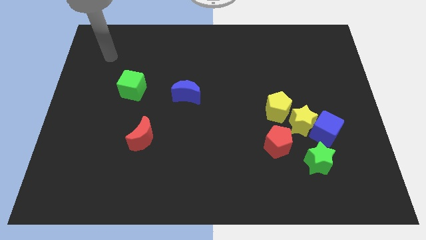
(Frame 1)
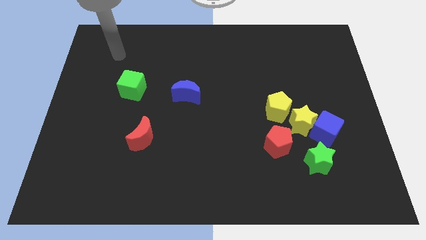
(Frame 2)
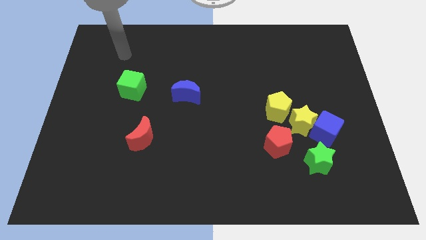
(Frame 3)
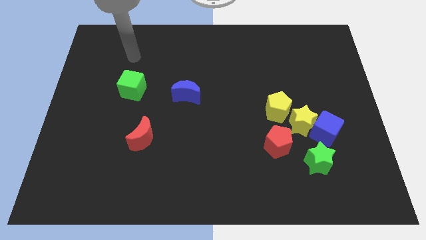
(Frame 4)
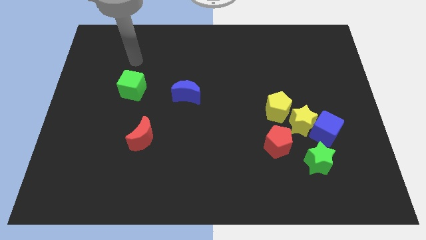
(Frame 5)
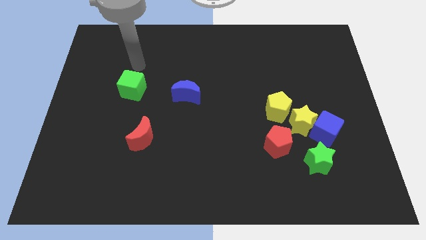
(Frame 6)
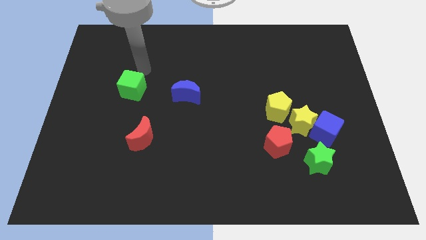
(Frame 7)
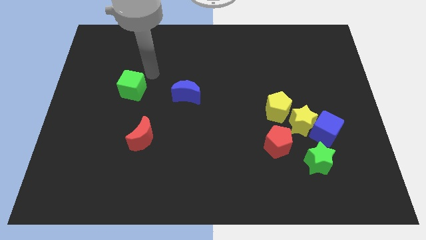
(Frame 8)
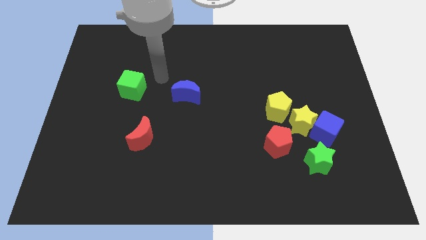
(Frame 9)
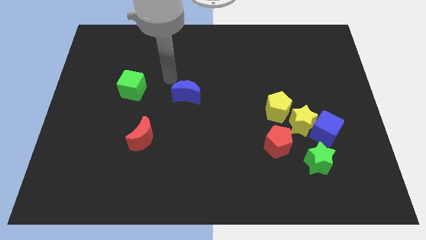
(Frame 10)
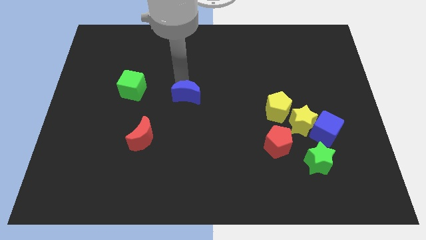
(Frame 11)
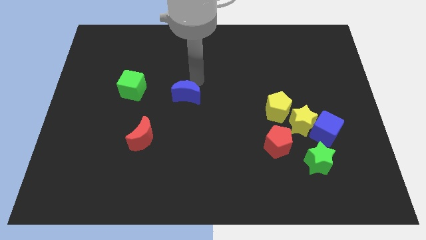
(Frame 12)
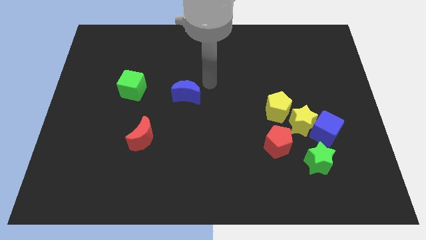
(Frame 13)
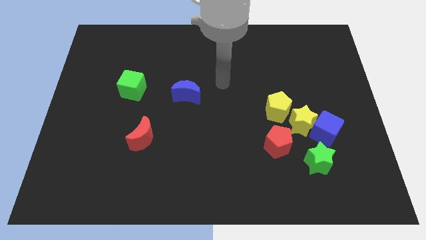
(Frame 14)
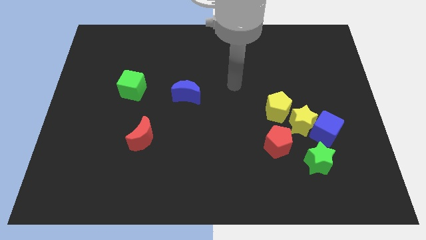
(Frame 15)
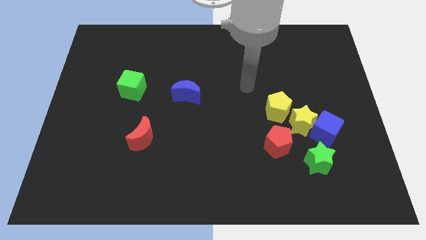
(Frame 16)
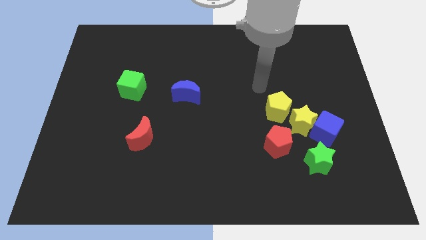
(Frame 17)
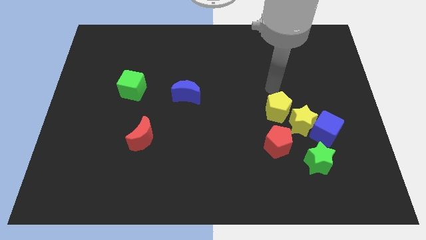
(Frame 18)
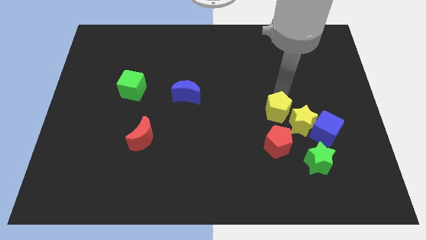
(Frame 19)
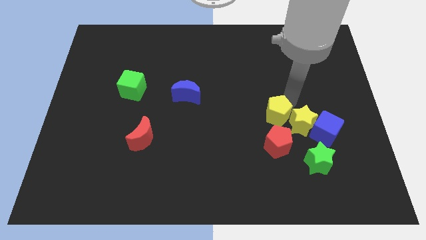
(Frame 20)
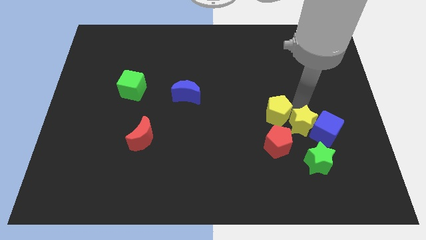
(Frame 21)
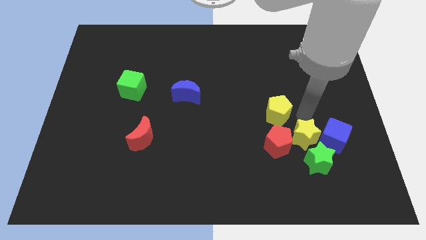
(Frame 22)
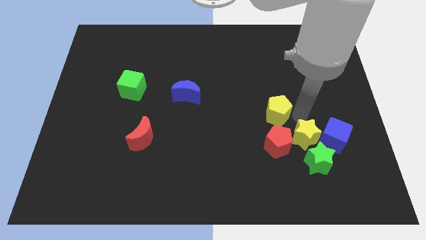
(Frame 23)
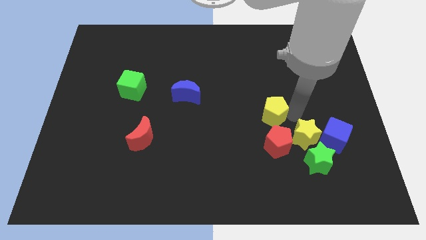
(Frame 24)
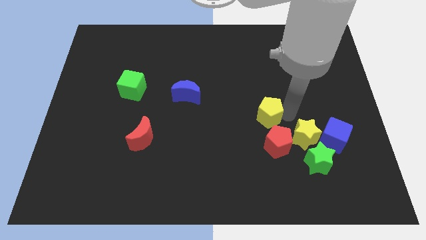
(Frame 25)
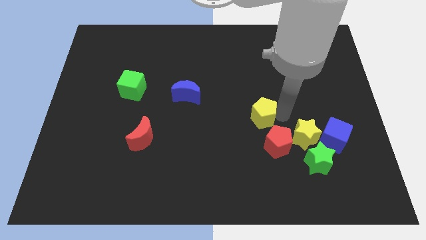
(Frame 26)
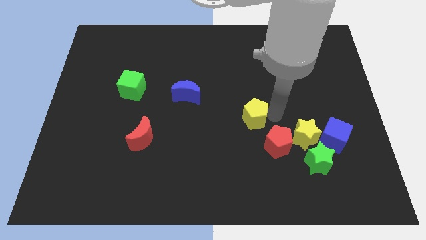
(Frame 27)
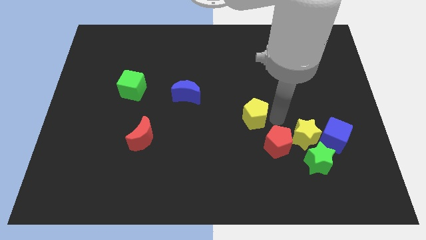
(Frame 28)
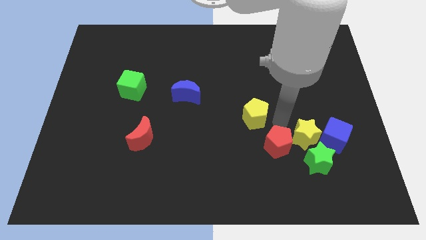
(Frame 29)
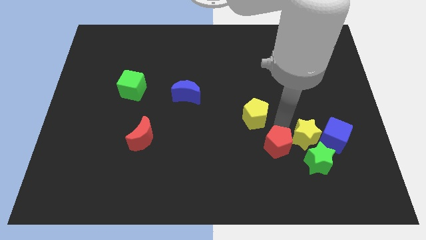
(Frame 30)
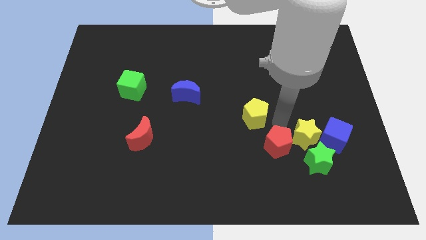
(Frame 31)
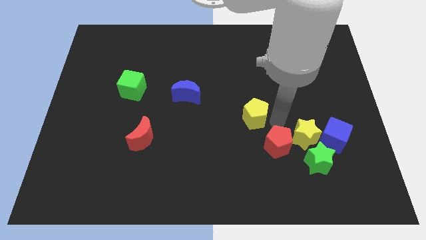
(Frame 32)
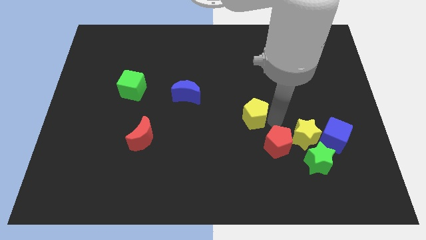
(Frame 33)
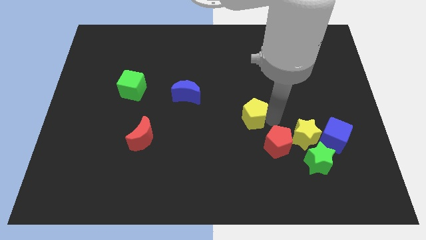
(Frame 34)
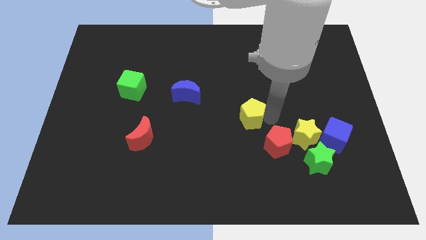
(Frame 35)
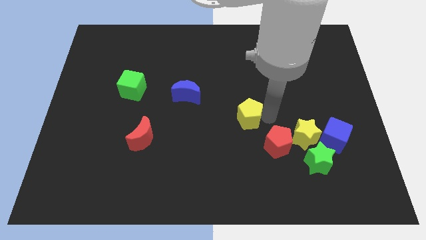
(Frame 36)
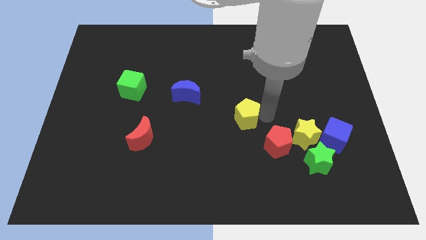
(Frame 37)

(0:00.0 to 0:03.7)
slide the yellow pentagon a bit to the left

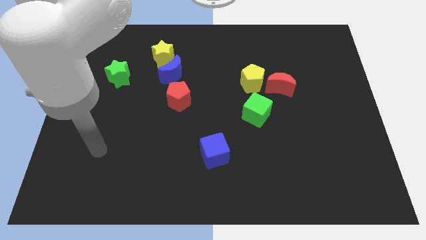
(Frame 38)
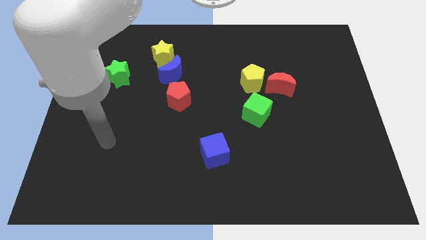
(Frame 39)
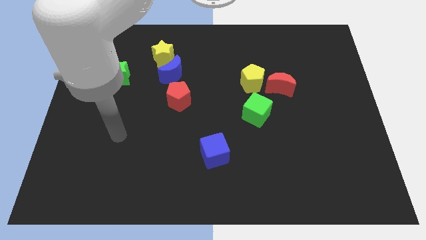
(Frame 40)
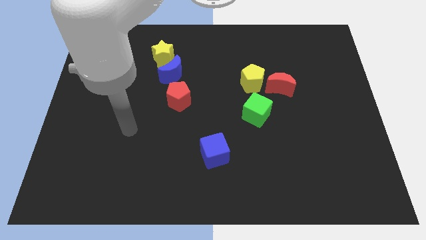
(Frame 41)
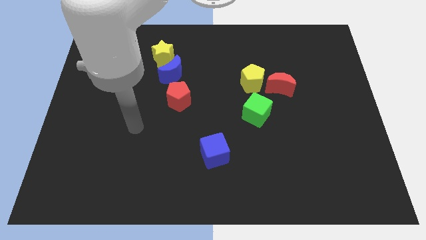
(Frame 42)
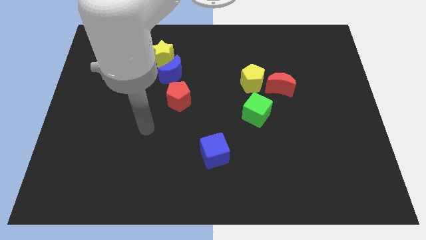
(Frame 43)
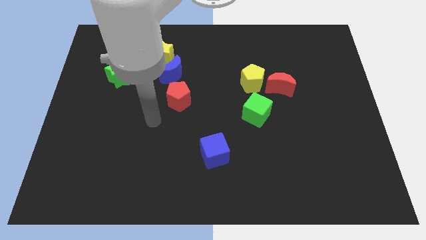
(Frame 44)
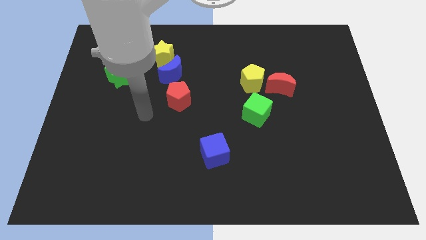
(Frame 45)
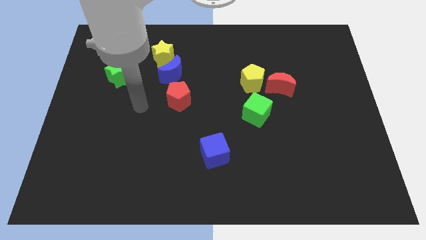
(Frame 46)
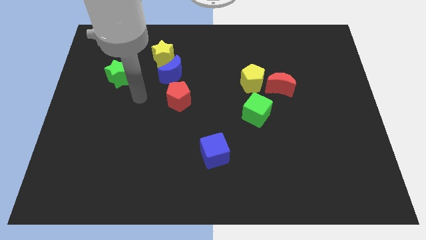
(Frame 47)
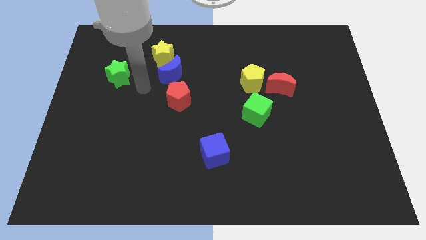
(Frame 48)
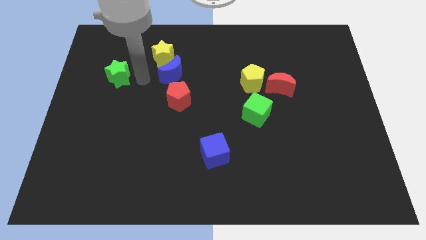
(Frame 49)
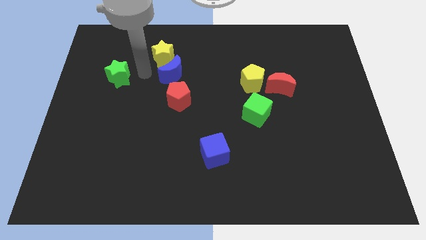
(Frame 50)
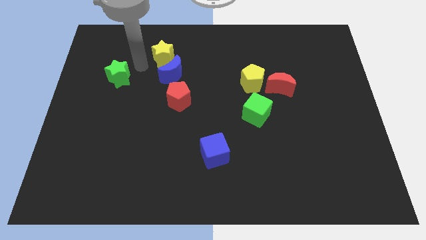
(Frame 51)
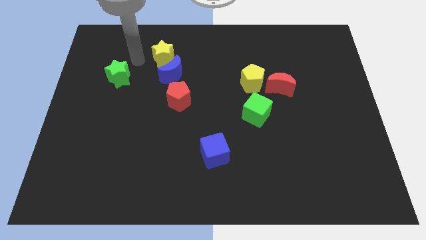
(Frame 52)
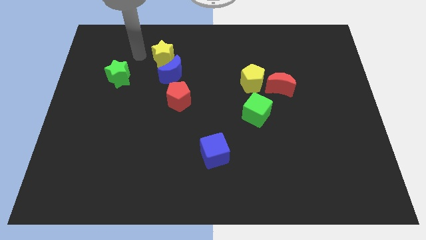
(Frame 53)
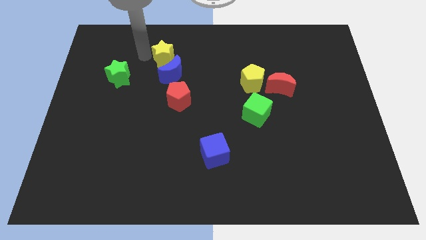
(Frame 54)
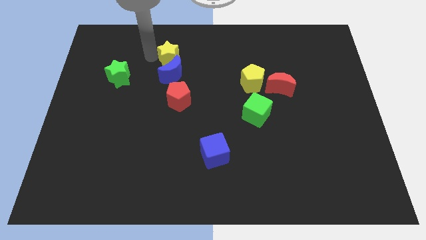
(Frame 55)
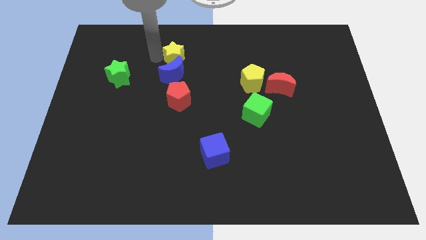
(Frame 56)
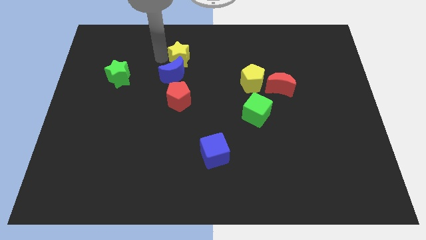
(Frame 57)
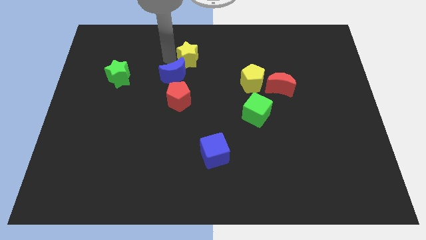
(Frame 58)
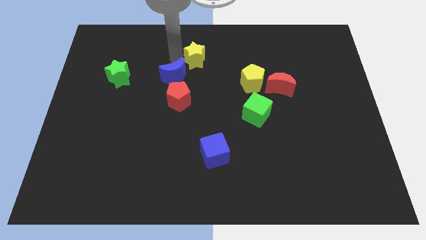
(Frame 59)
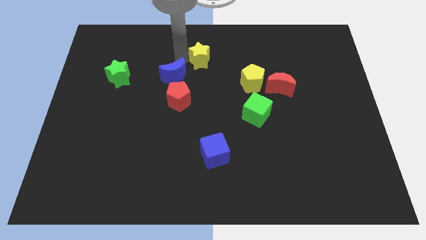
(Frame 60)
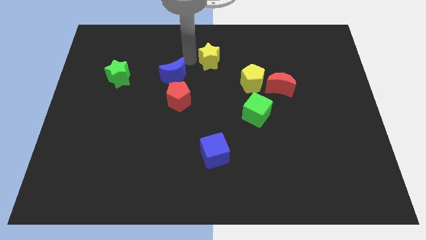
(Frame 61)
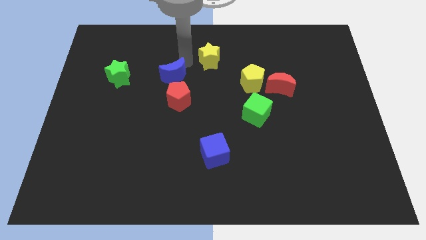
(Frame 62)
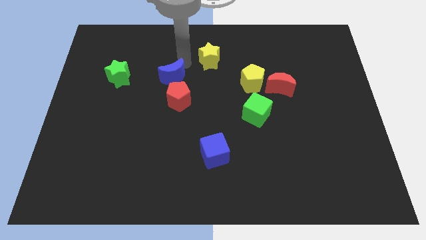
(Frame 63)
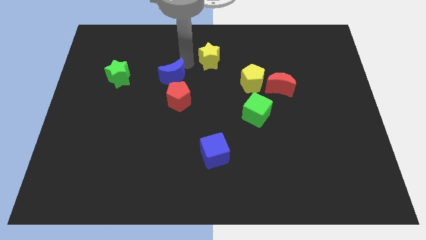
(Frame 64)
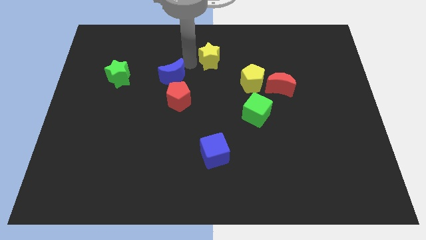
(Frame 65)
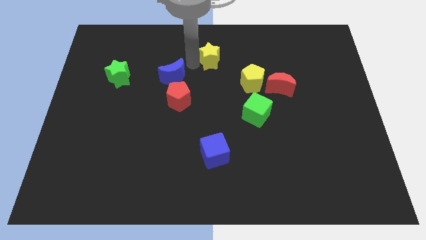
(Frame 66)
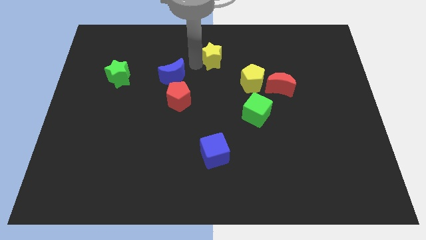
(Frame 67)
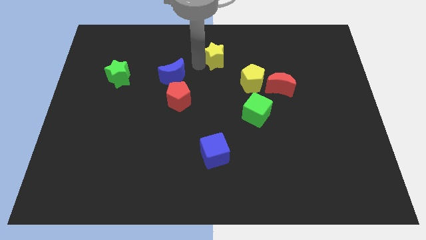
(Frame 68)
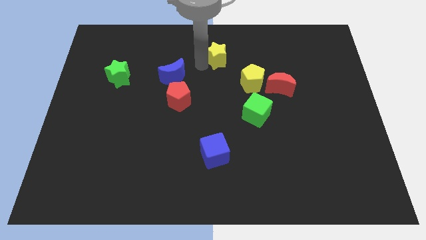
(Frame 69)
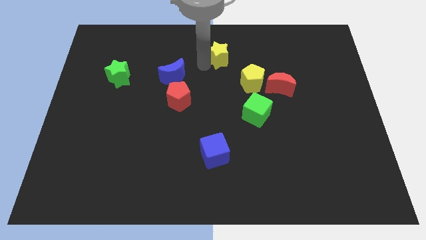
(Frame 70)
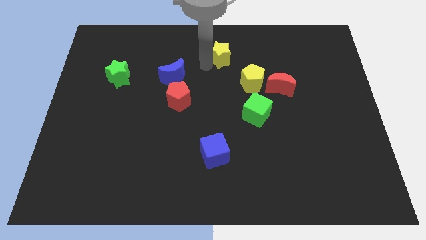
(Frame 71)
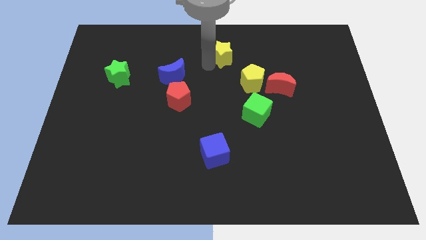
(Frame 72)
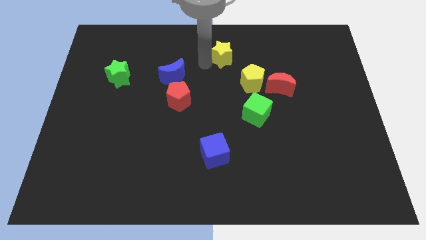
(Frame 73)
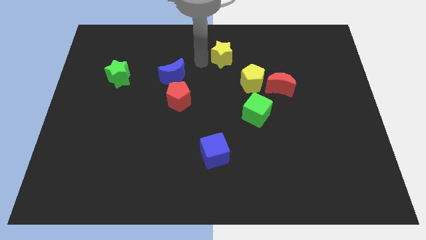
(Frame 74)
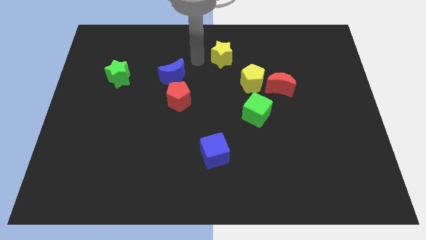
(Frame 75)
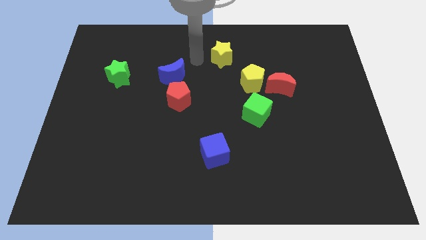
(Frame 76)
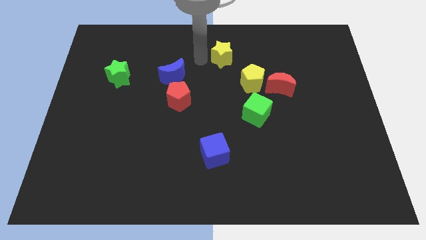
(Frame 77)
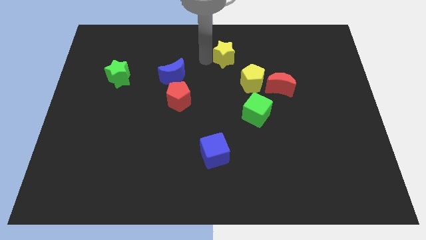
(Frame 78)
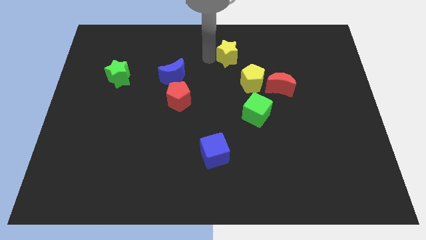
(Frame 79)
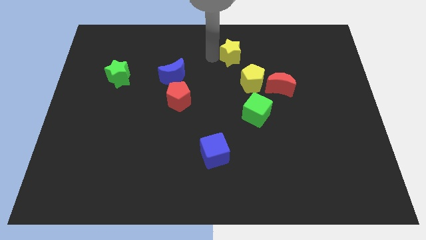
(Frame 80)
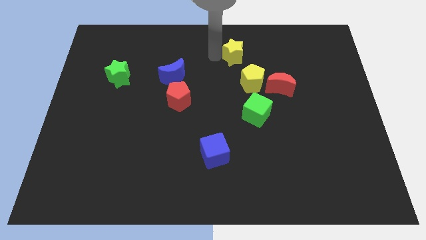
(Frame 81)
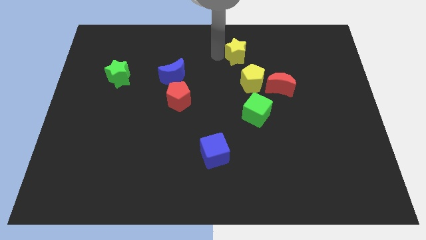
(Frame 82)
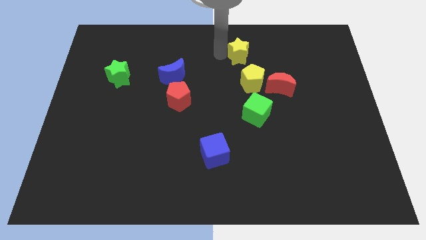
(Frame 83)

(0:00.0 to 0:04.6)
slide the yellow star right
